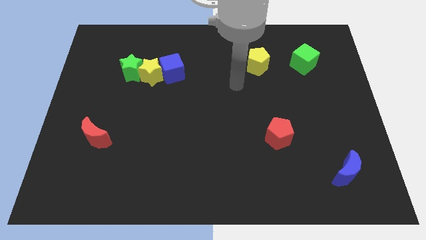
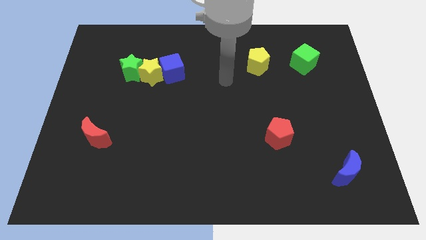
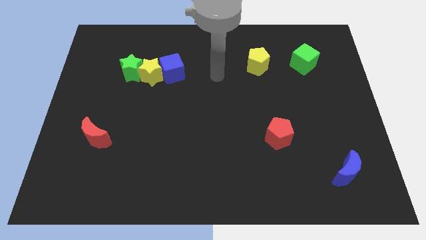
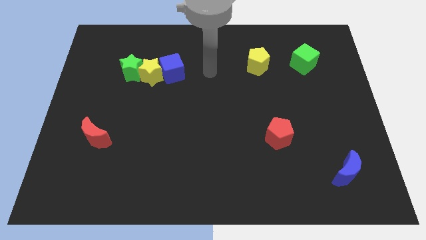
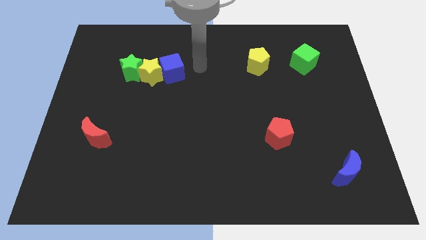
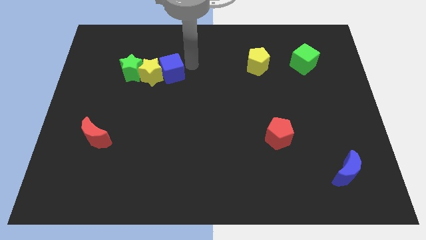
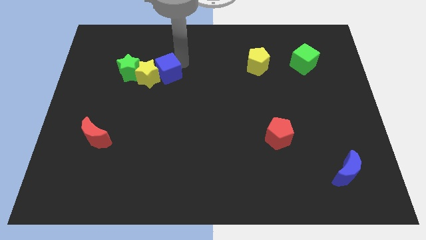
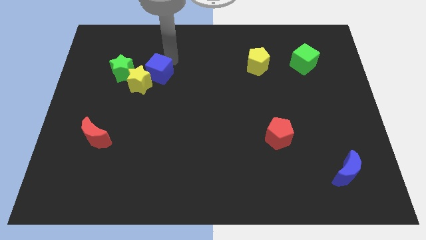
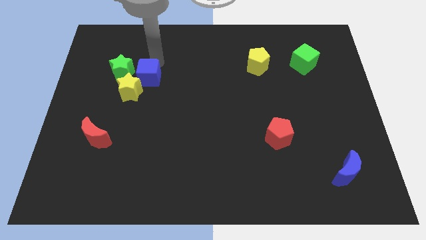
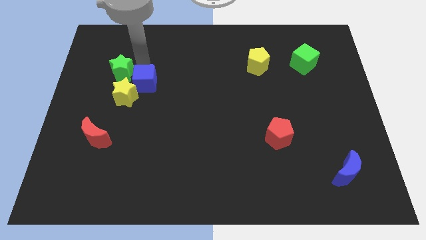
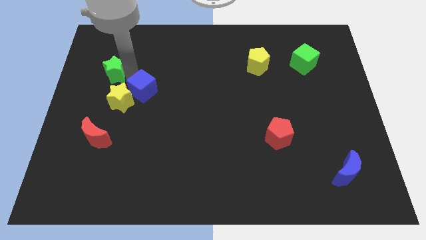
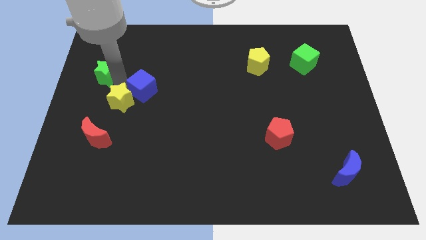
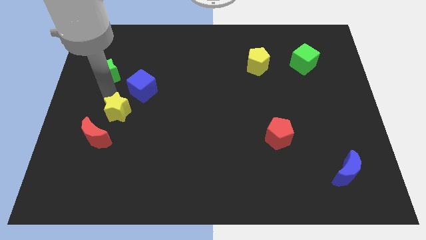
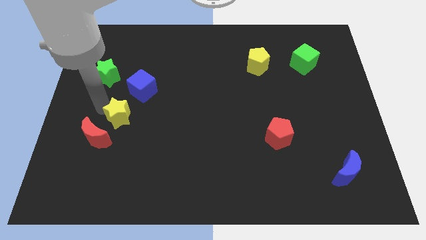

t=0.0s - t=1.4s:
pull the yellow star apart from the green star and blue cube

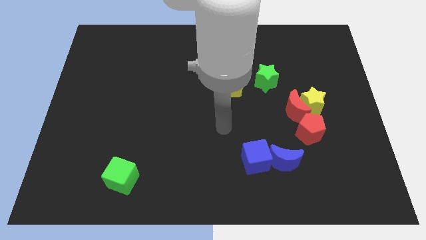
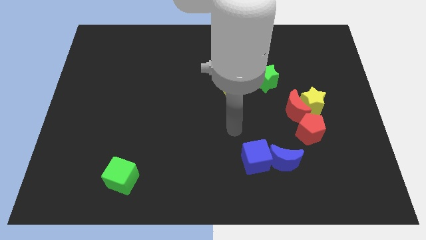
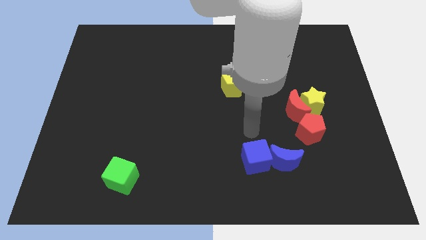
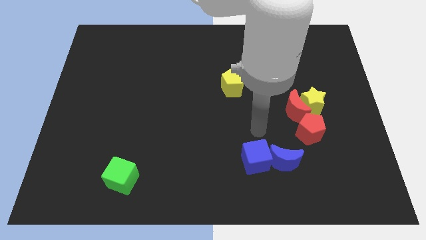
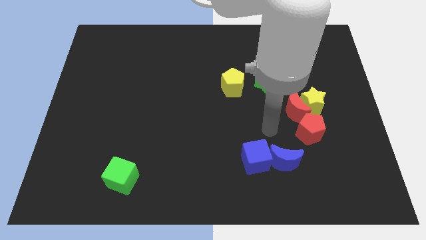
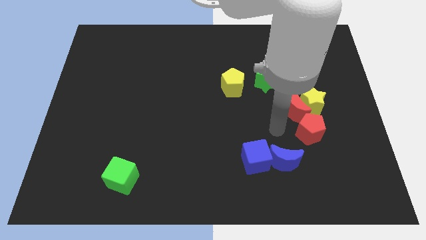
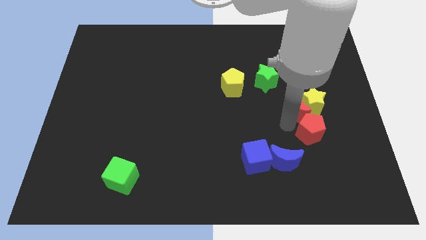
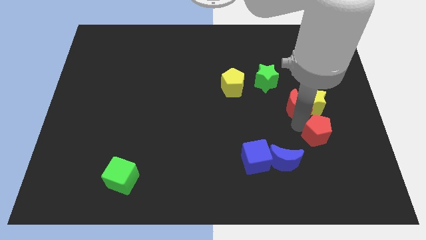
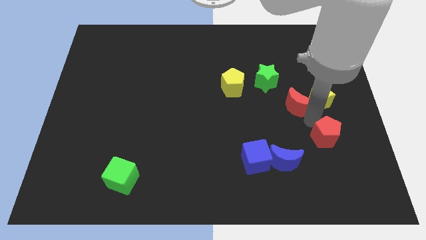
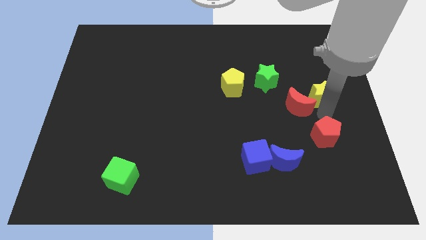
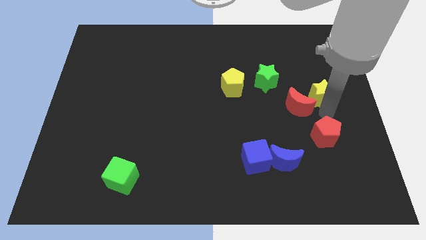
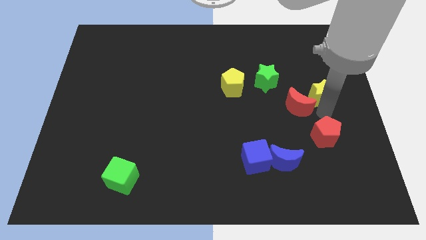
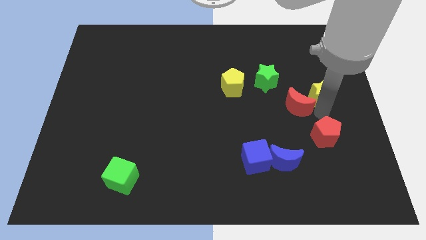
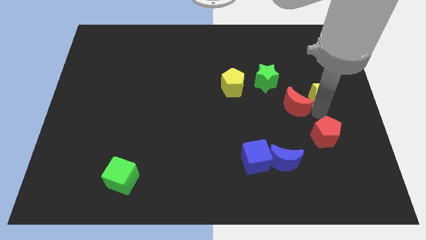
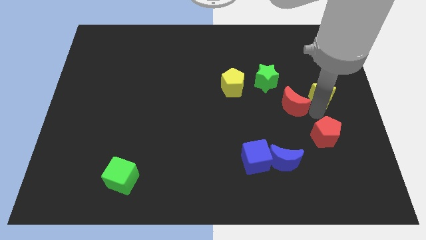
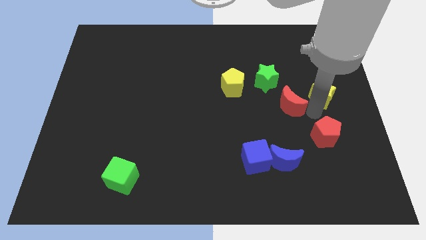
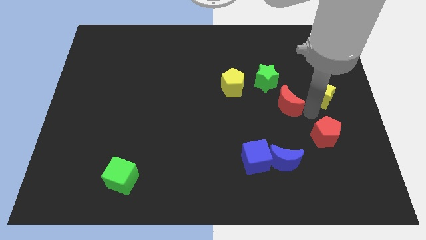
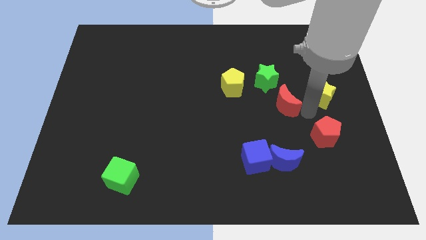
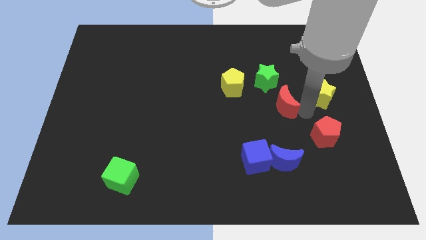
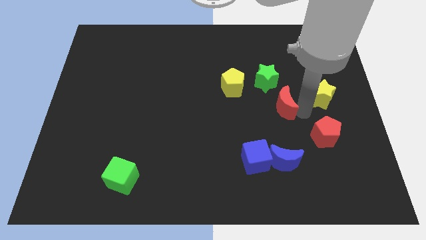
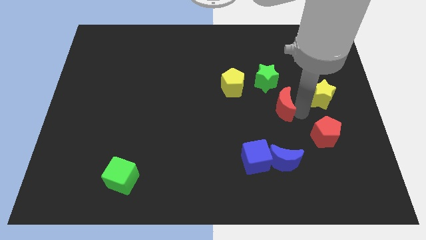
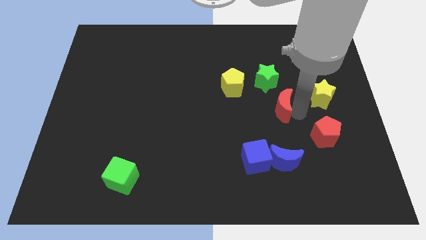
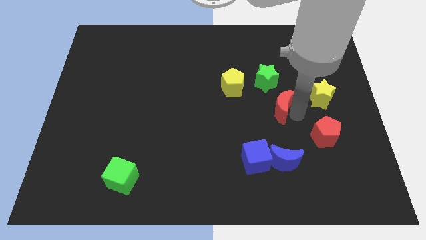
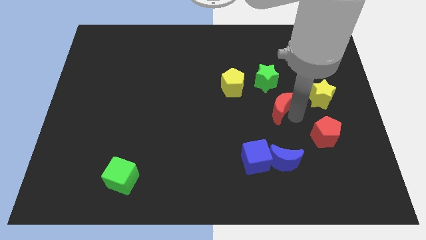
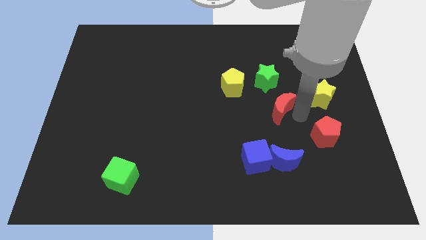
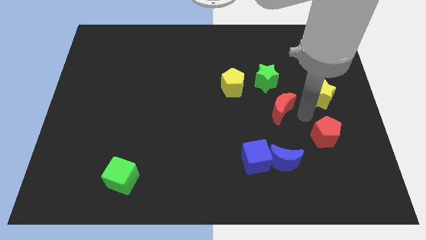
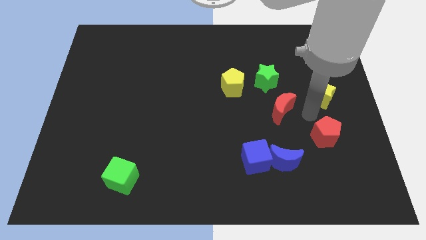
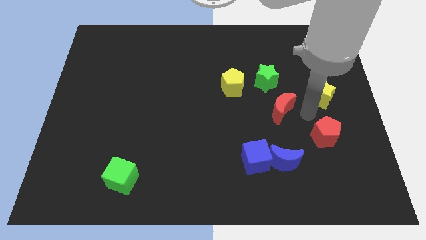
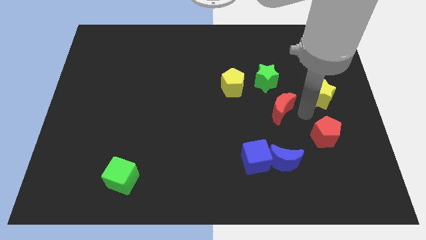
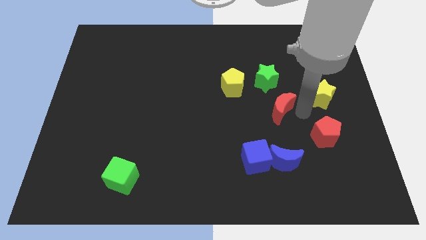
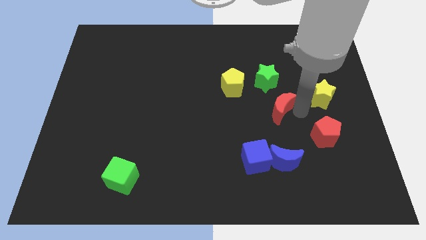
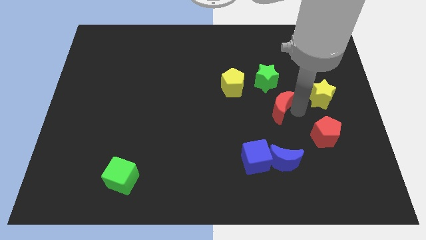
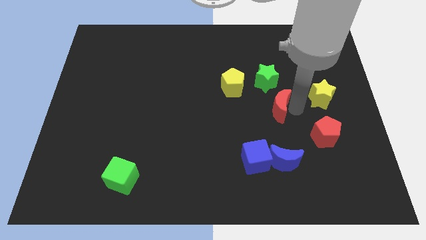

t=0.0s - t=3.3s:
move the red moon away from the yellow star and red pentagon

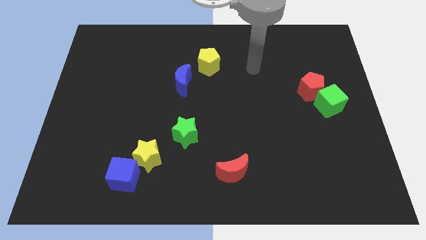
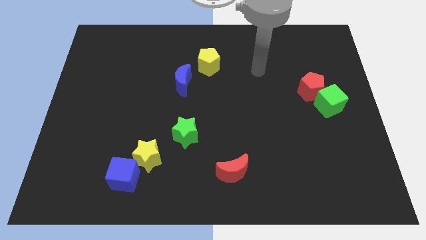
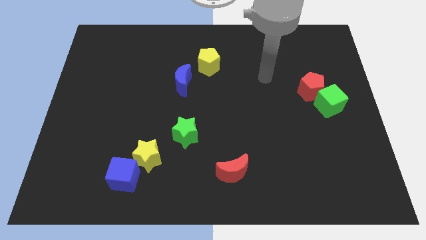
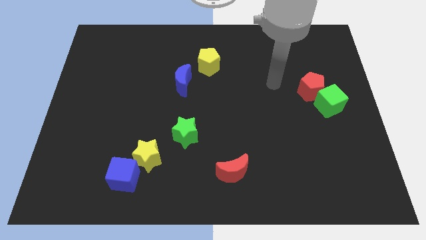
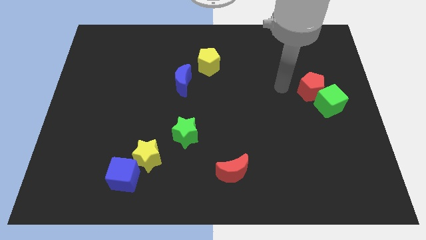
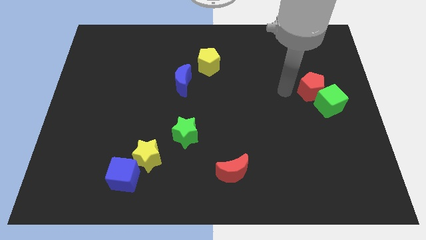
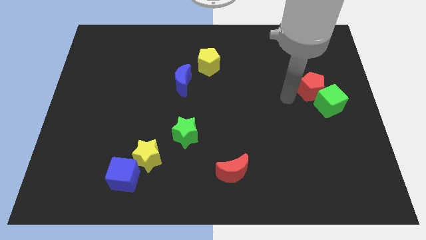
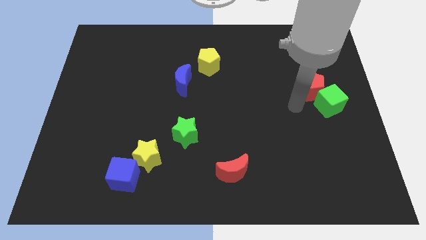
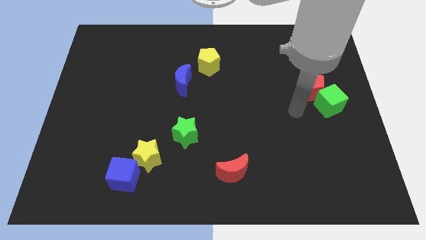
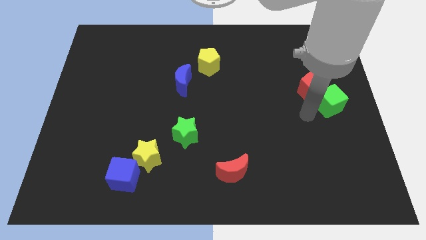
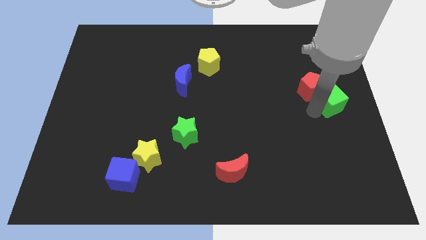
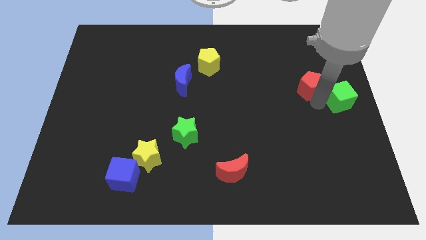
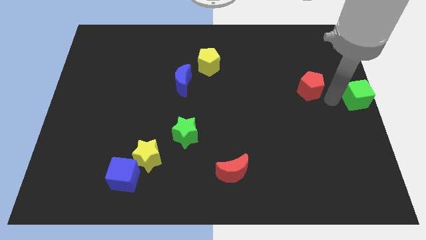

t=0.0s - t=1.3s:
move the red pentagon away from the green cube

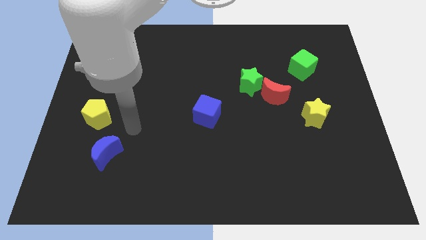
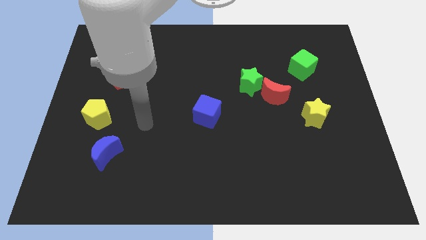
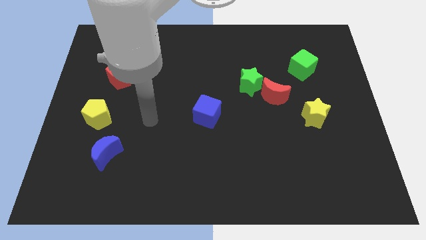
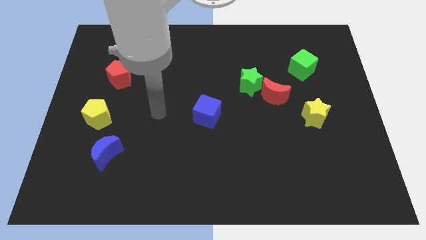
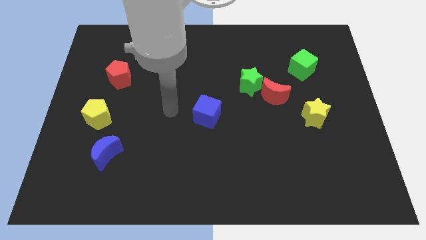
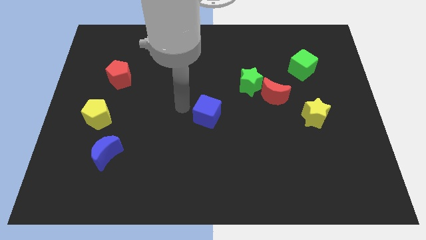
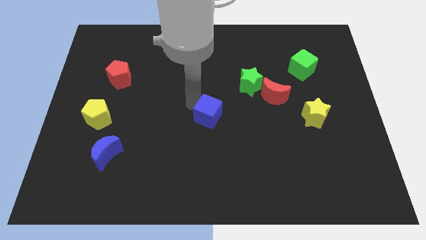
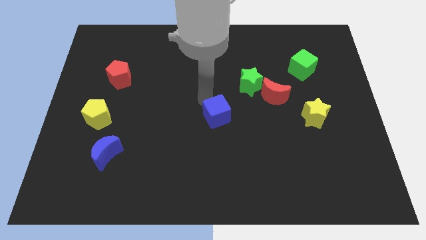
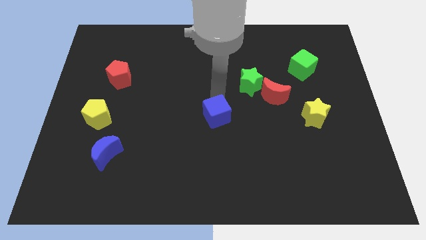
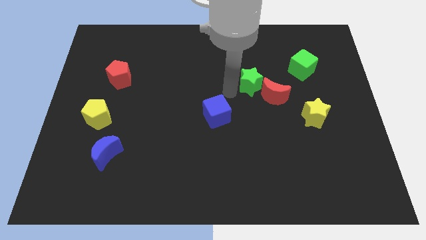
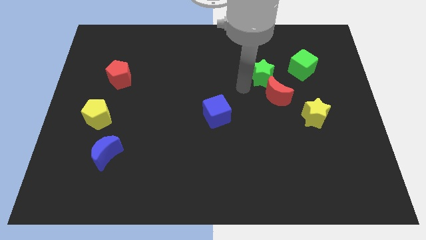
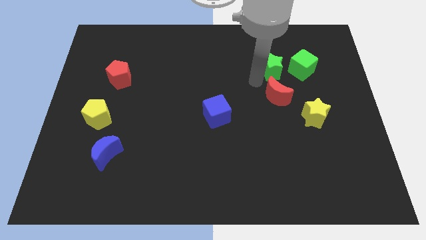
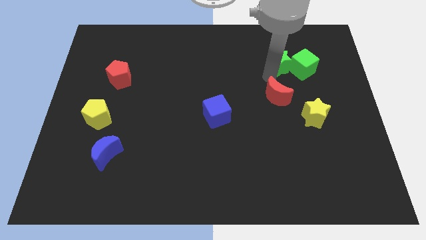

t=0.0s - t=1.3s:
pull the red moon apart from the green star

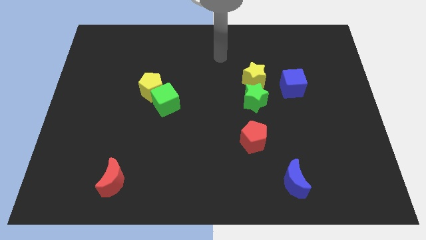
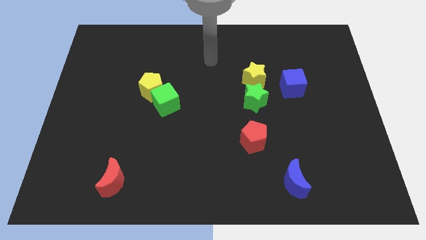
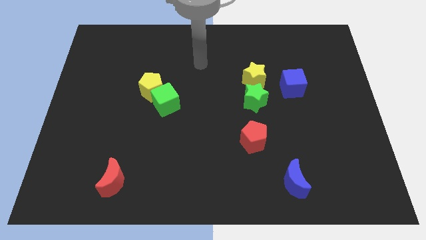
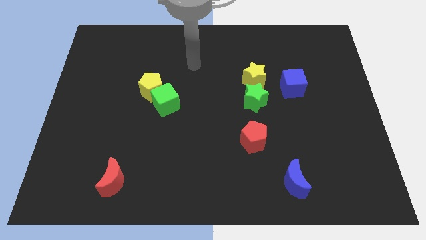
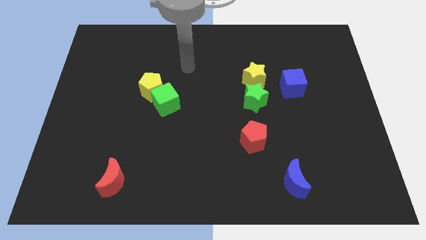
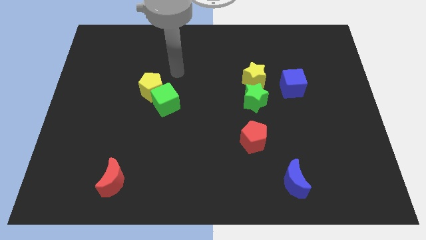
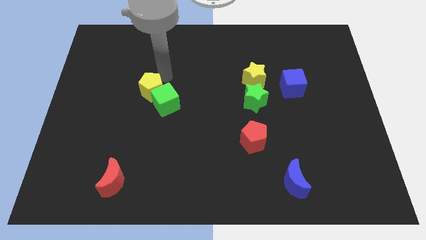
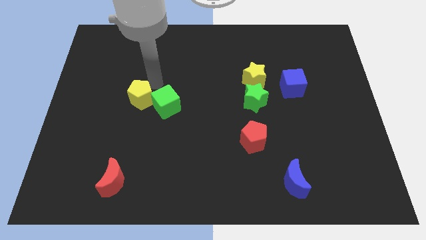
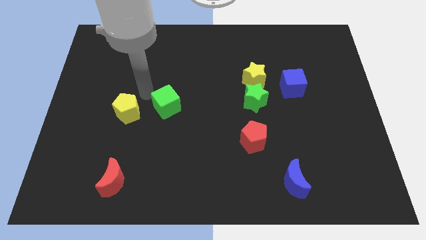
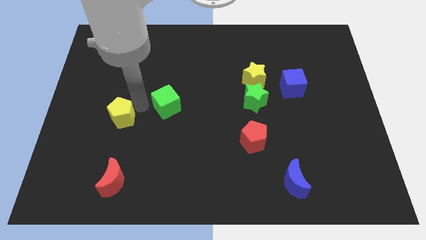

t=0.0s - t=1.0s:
move the green cube away from the yellow pentagon

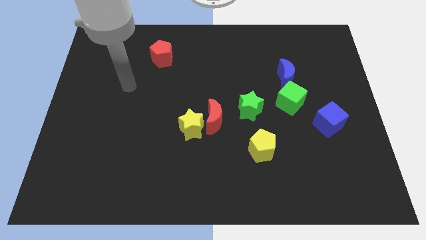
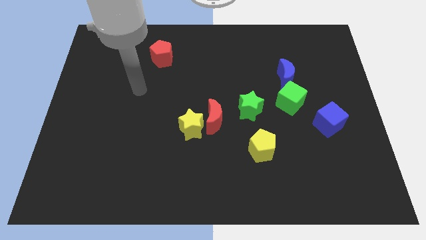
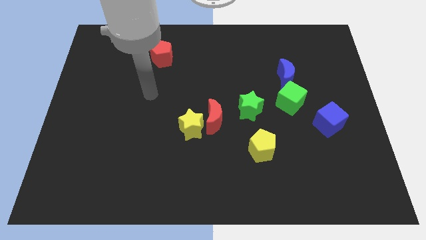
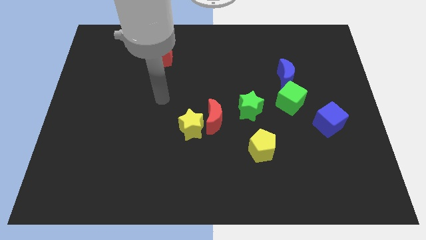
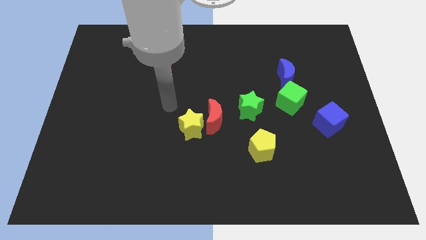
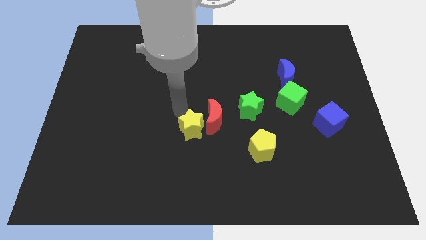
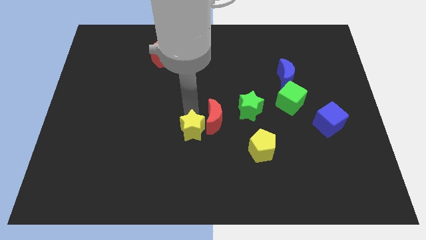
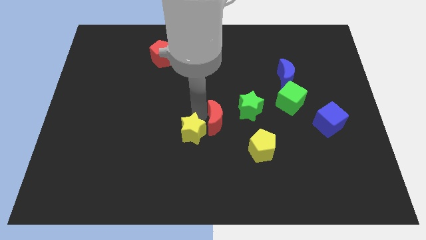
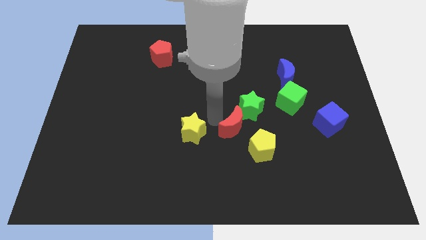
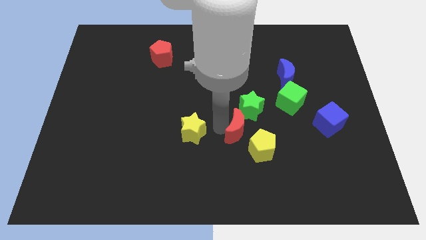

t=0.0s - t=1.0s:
move the yellow star away from the red moon
